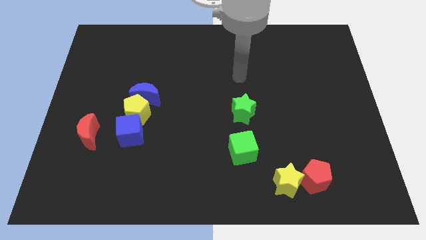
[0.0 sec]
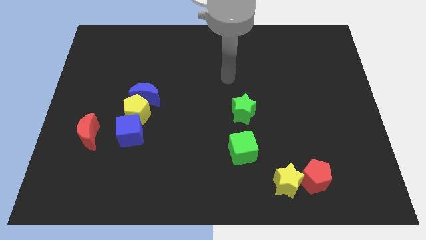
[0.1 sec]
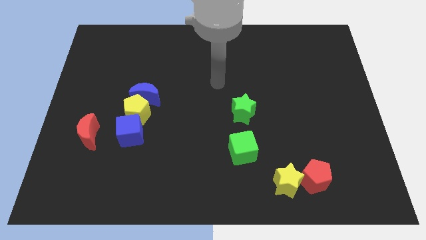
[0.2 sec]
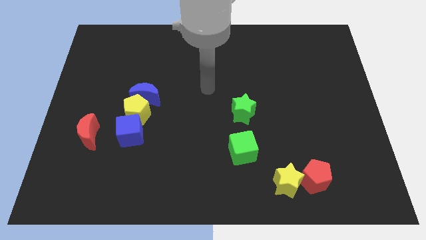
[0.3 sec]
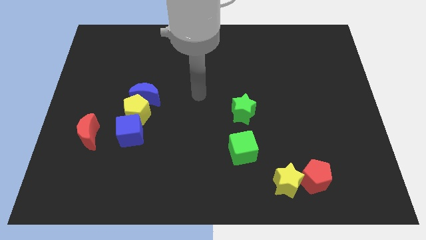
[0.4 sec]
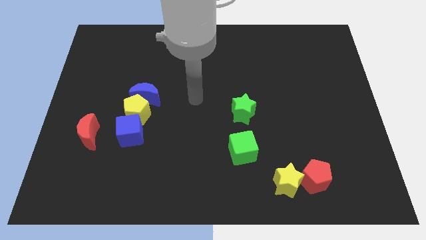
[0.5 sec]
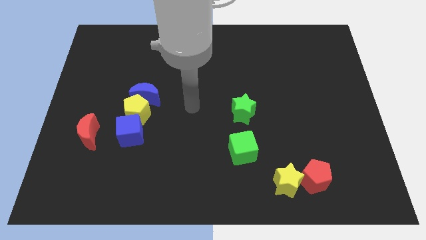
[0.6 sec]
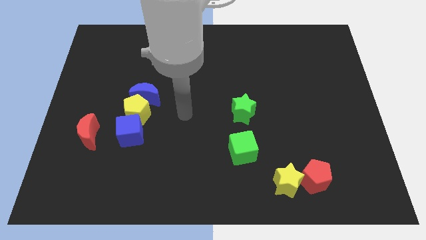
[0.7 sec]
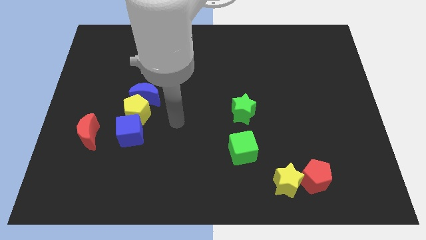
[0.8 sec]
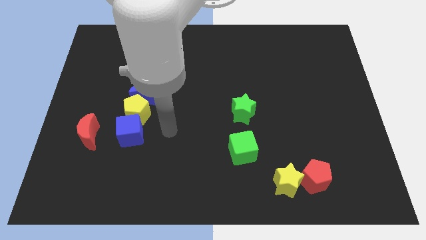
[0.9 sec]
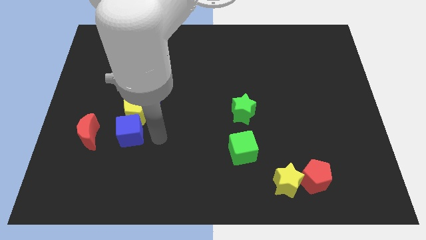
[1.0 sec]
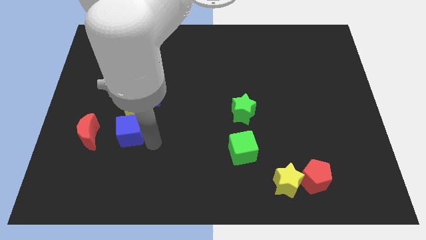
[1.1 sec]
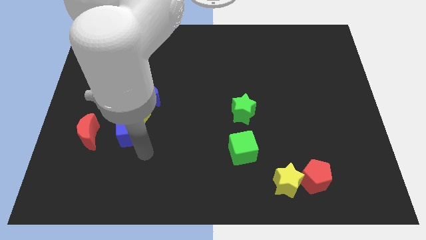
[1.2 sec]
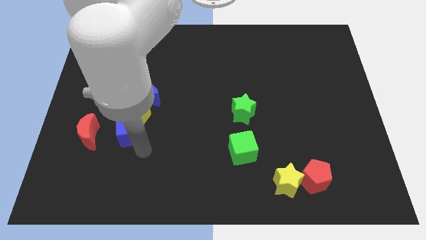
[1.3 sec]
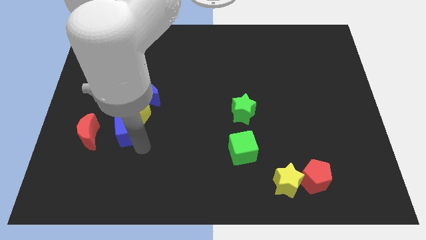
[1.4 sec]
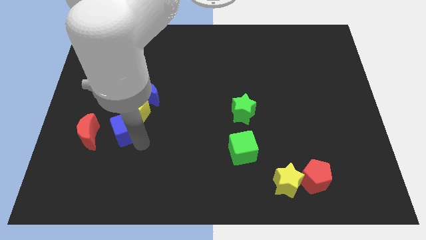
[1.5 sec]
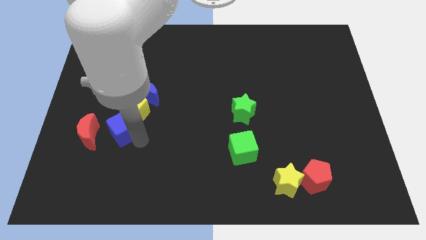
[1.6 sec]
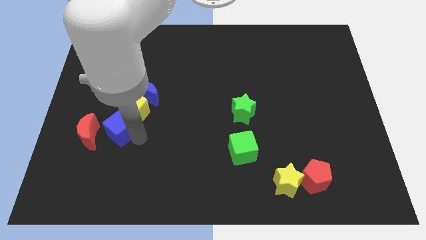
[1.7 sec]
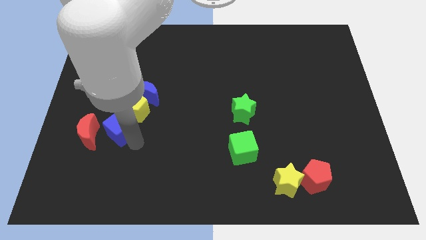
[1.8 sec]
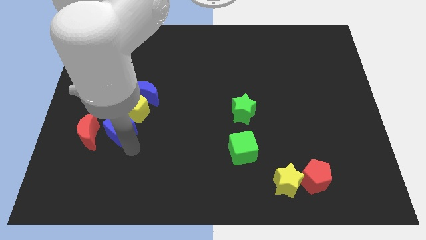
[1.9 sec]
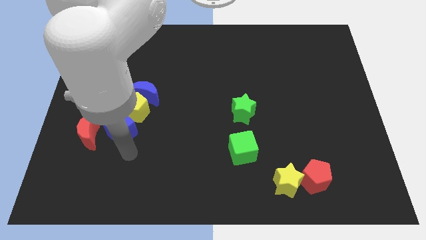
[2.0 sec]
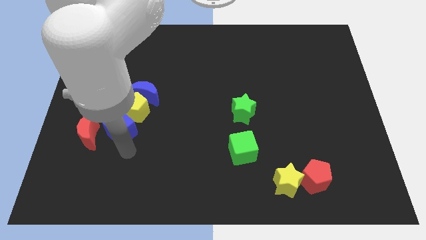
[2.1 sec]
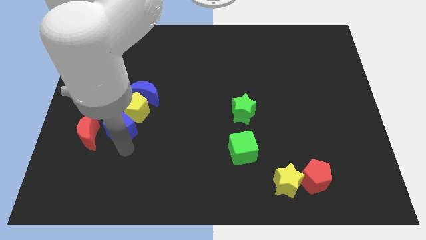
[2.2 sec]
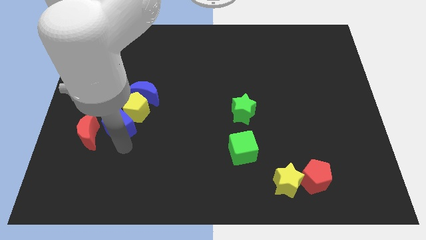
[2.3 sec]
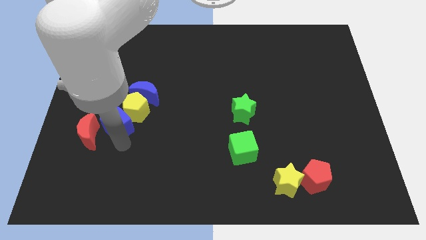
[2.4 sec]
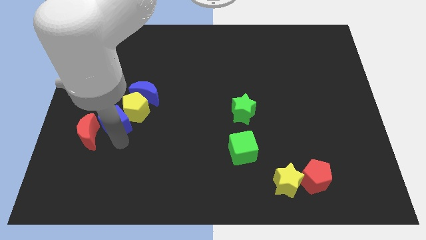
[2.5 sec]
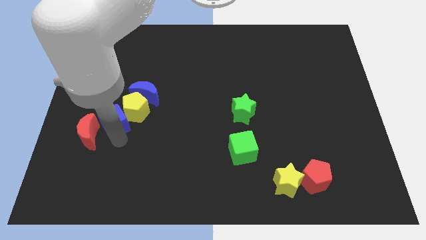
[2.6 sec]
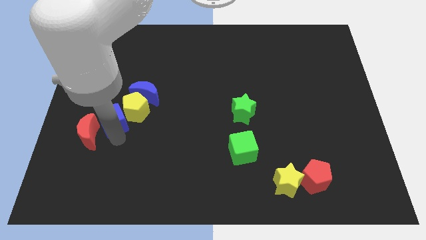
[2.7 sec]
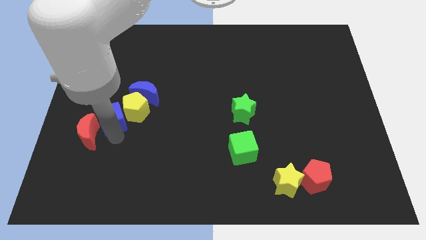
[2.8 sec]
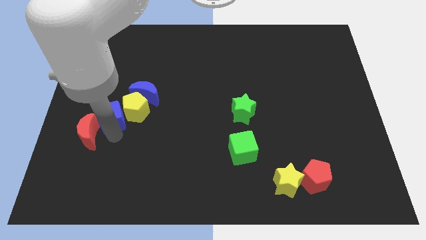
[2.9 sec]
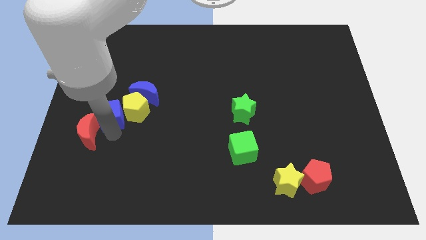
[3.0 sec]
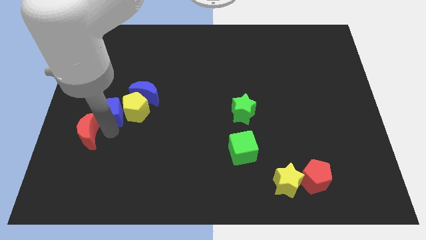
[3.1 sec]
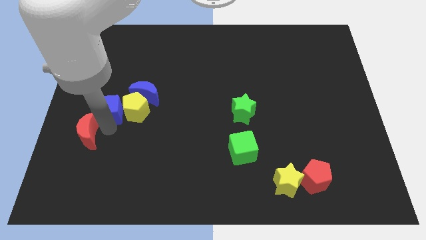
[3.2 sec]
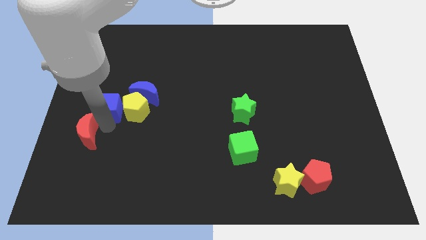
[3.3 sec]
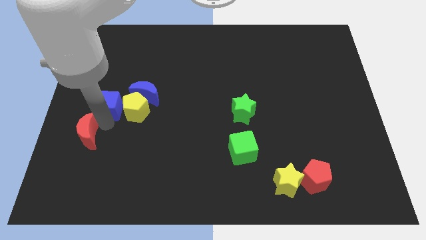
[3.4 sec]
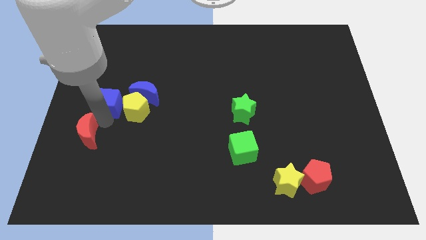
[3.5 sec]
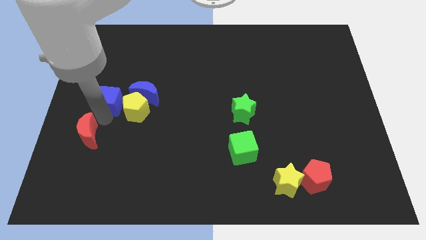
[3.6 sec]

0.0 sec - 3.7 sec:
slightly slide the blue cube upwards

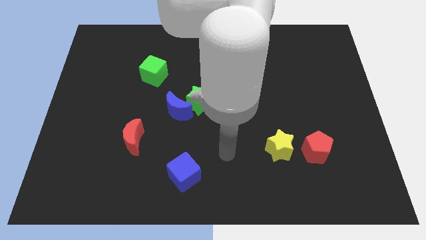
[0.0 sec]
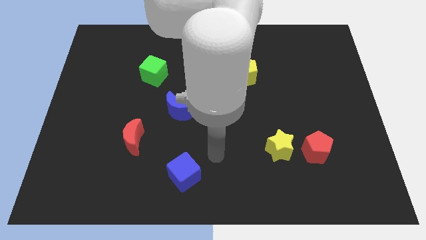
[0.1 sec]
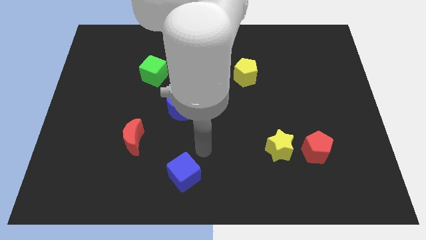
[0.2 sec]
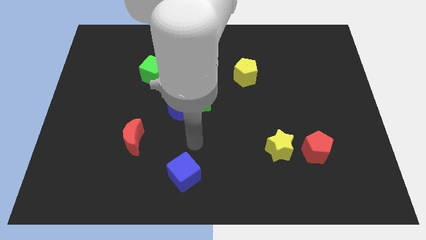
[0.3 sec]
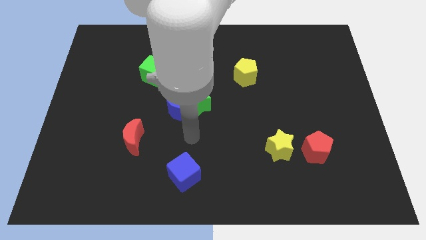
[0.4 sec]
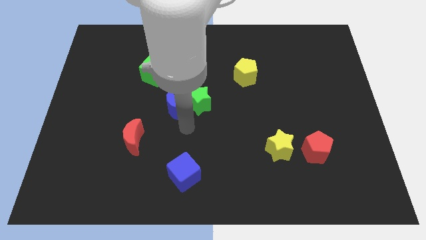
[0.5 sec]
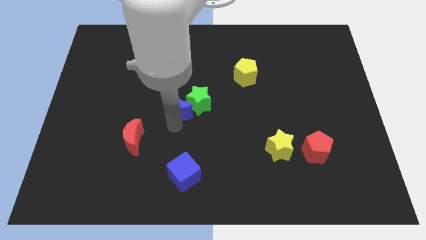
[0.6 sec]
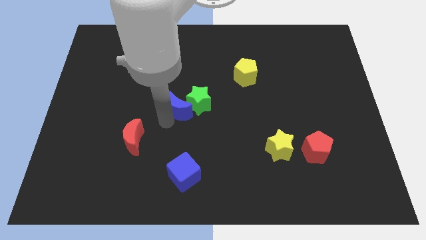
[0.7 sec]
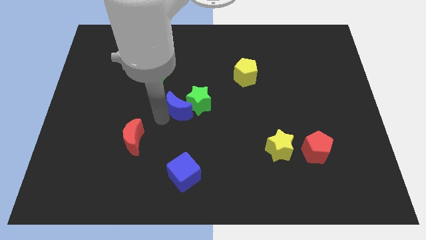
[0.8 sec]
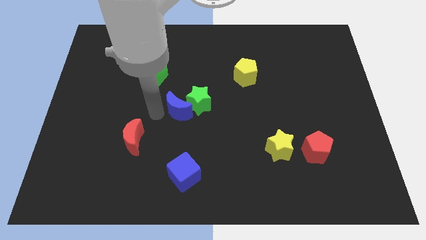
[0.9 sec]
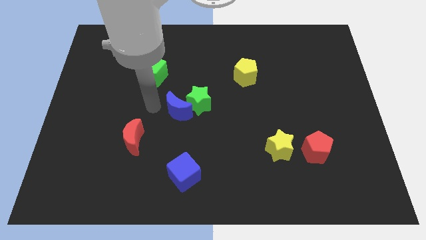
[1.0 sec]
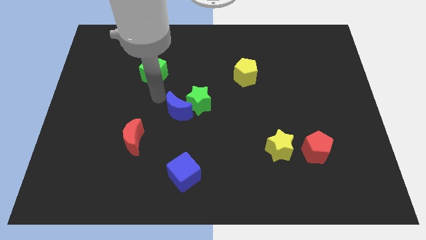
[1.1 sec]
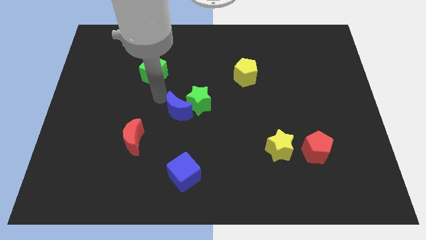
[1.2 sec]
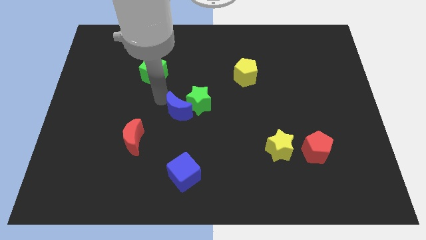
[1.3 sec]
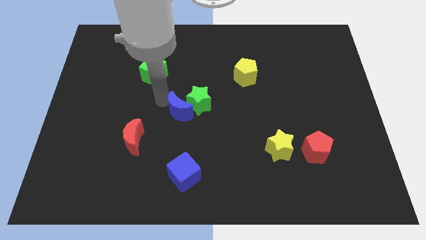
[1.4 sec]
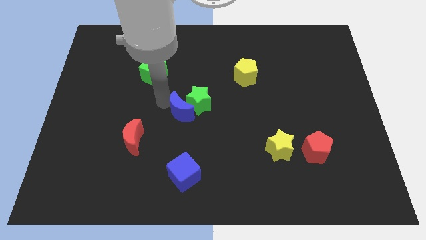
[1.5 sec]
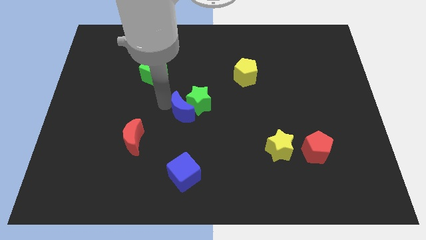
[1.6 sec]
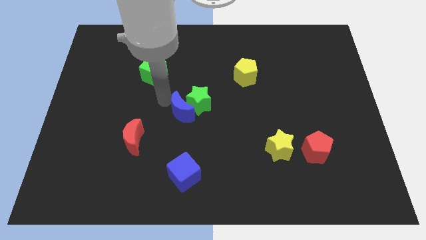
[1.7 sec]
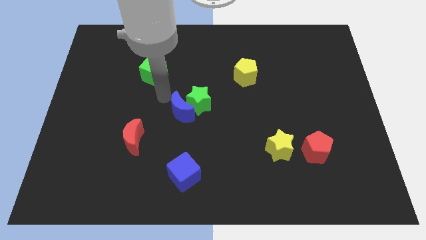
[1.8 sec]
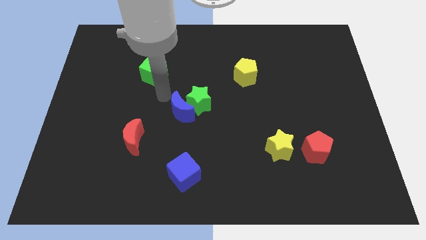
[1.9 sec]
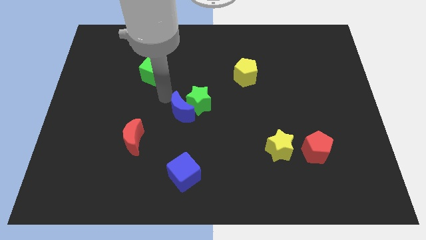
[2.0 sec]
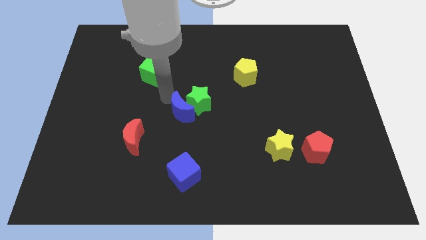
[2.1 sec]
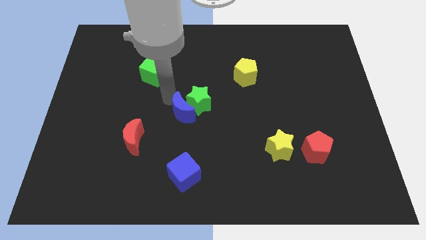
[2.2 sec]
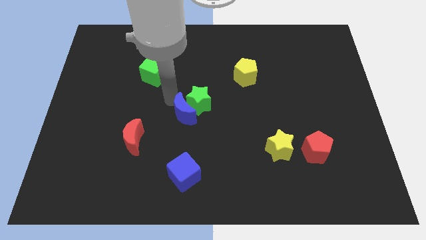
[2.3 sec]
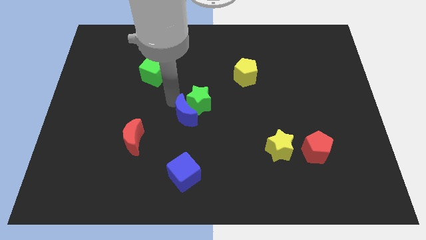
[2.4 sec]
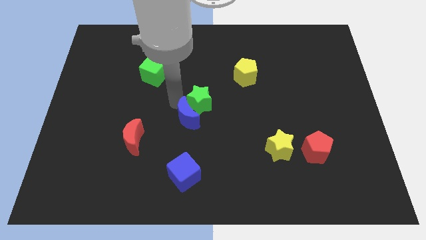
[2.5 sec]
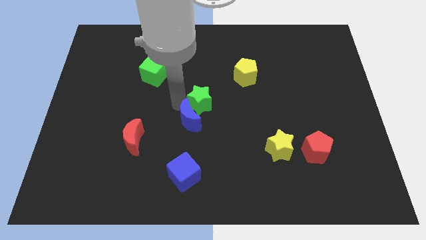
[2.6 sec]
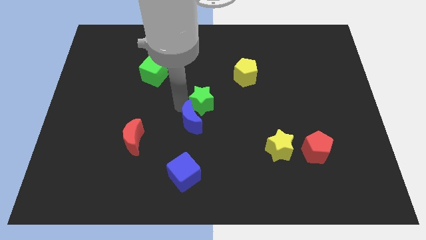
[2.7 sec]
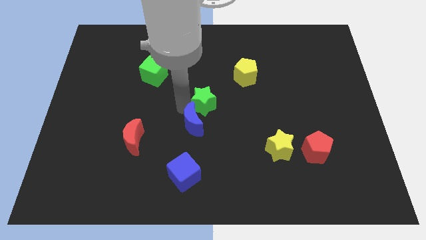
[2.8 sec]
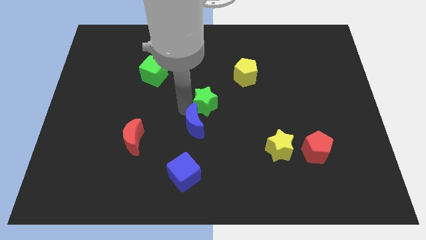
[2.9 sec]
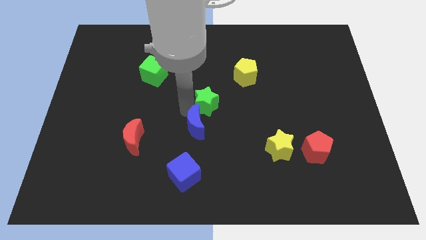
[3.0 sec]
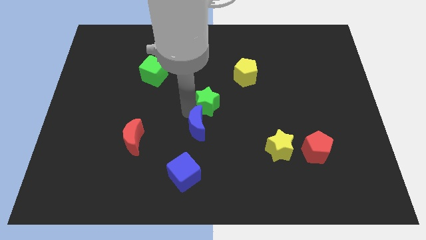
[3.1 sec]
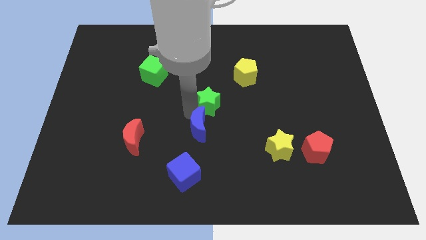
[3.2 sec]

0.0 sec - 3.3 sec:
slightly move the blue moon down and right

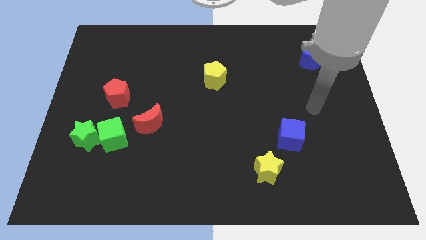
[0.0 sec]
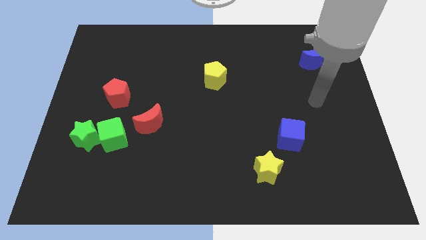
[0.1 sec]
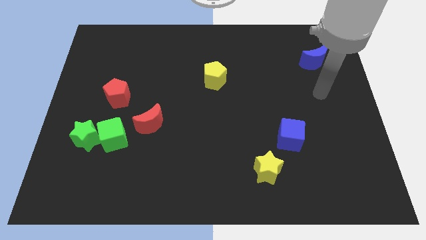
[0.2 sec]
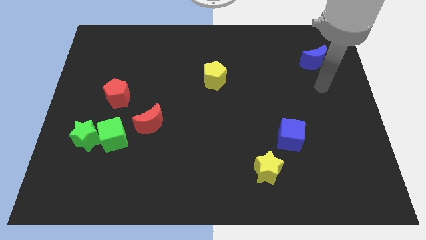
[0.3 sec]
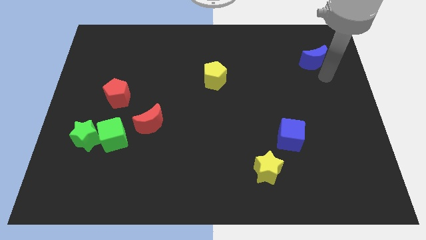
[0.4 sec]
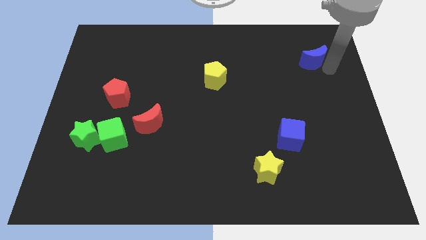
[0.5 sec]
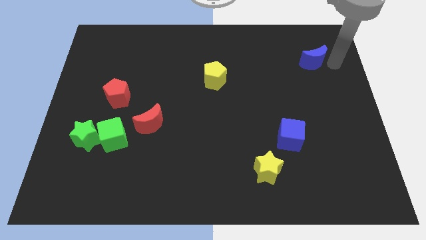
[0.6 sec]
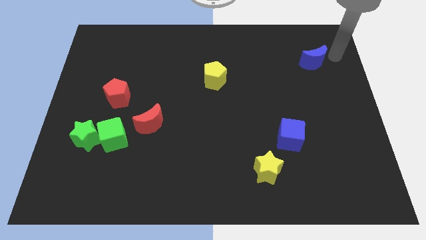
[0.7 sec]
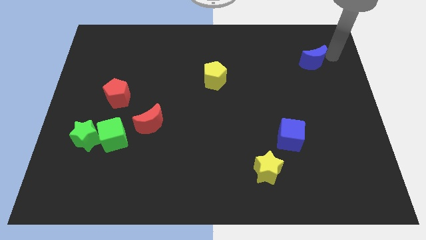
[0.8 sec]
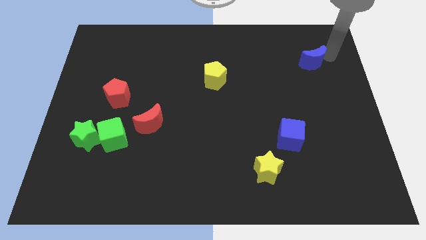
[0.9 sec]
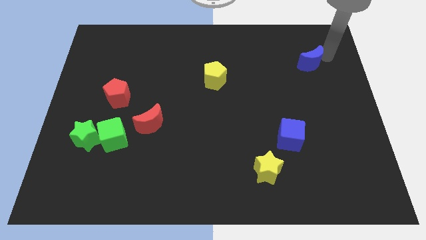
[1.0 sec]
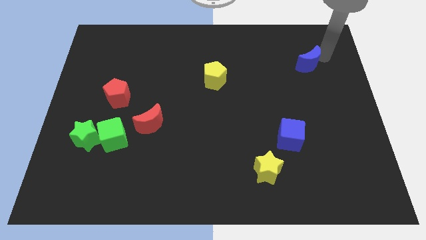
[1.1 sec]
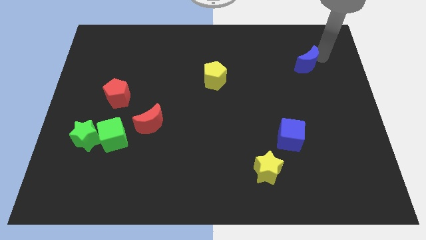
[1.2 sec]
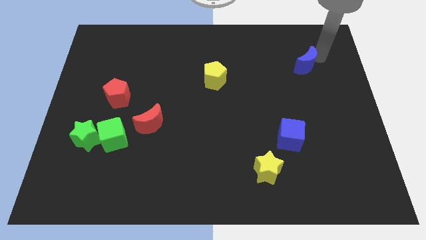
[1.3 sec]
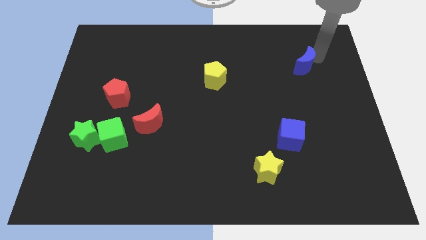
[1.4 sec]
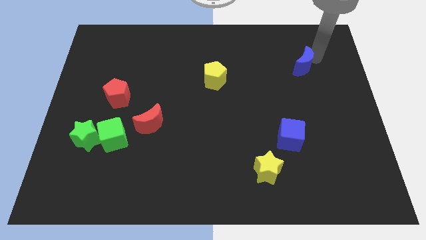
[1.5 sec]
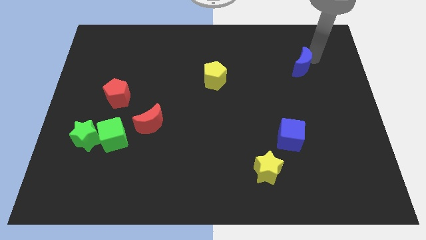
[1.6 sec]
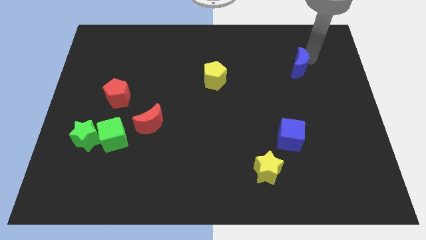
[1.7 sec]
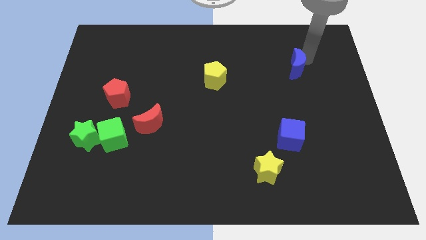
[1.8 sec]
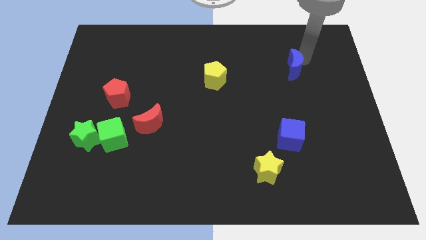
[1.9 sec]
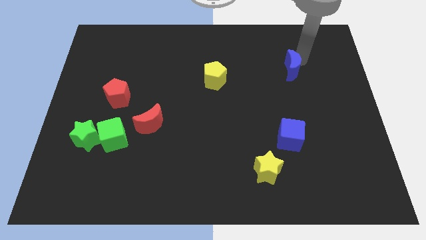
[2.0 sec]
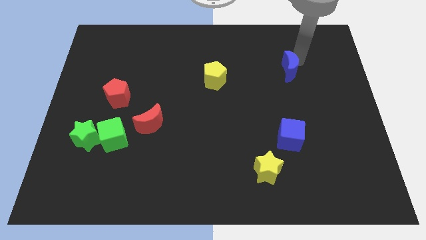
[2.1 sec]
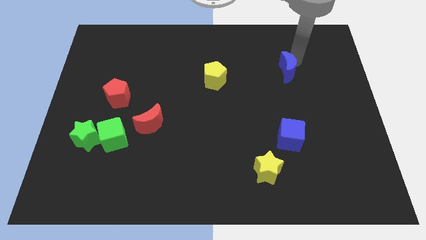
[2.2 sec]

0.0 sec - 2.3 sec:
slide the blue moon a bit to the left
